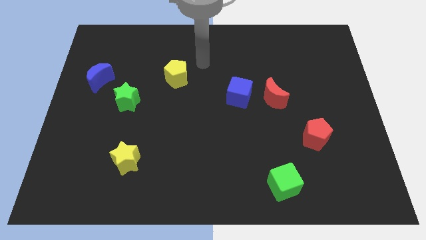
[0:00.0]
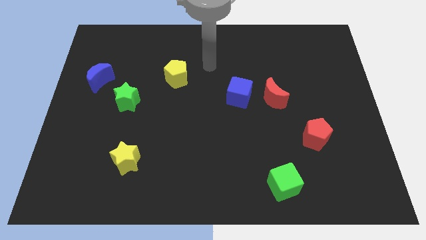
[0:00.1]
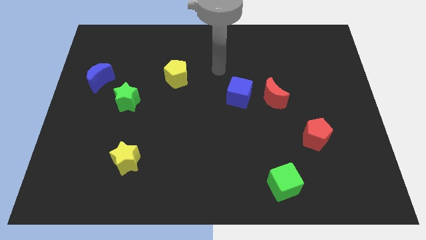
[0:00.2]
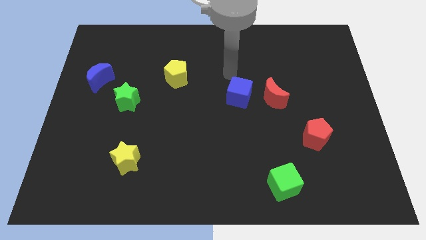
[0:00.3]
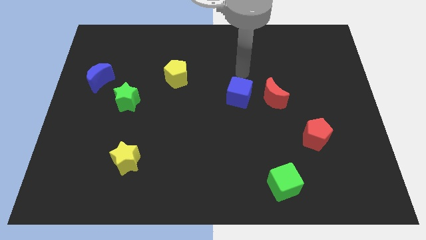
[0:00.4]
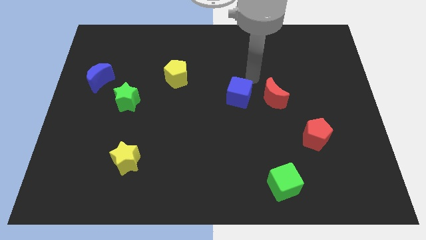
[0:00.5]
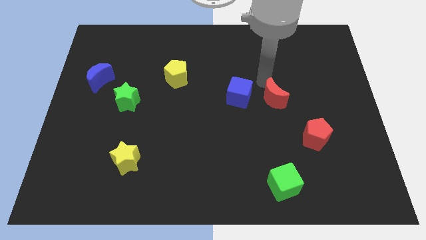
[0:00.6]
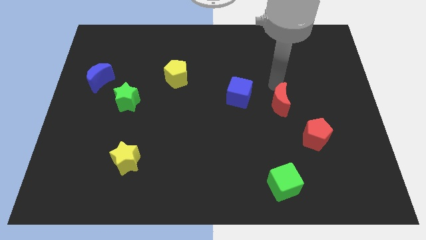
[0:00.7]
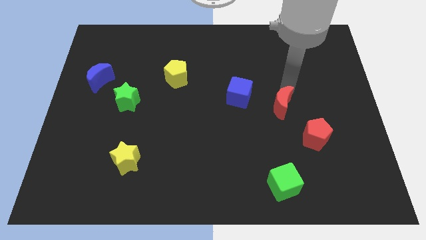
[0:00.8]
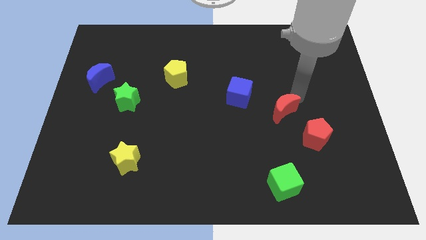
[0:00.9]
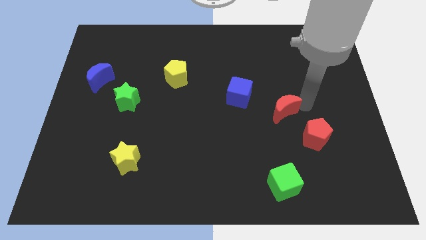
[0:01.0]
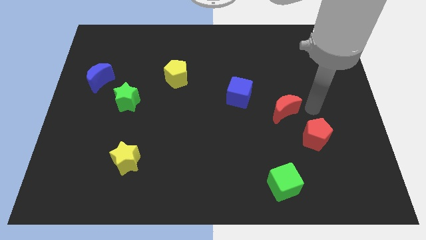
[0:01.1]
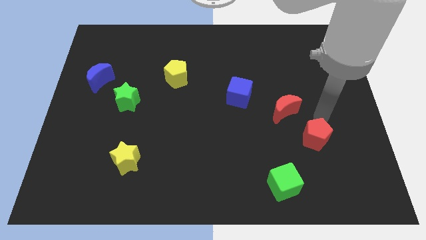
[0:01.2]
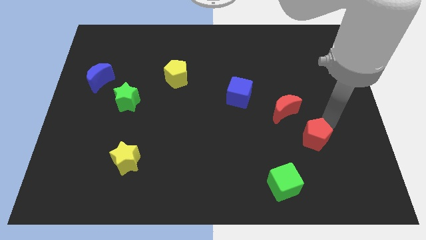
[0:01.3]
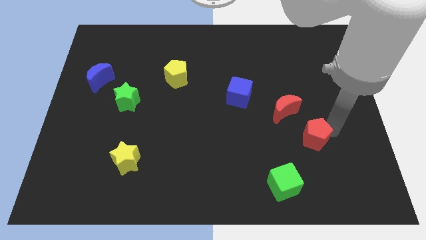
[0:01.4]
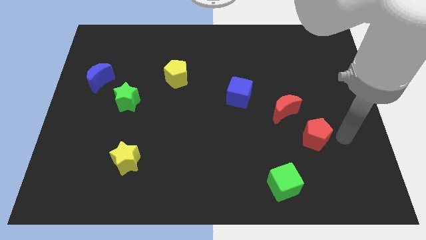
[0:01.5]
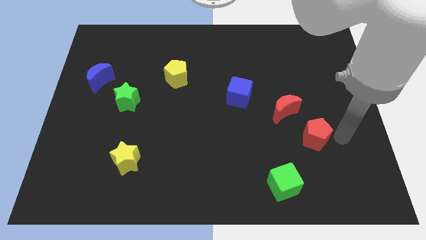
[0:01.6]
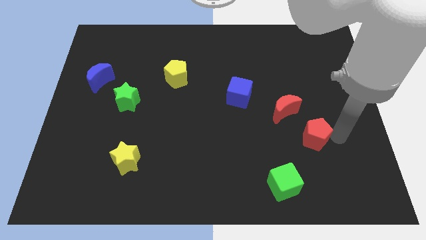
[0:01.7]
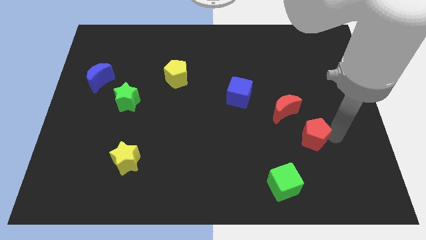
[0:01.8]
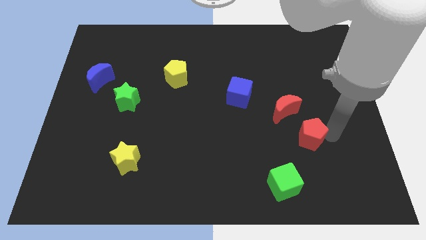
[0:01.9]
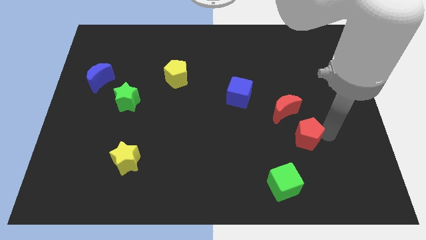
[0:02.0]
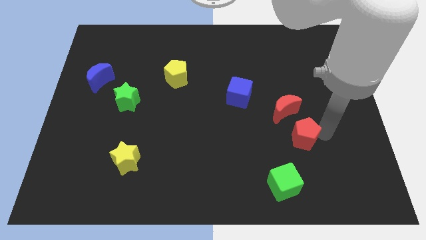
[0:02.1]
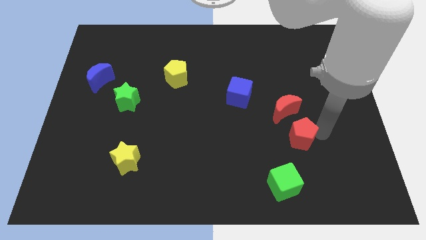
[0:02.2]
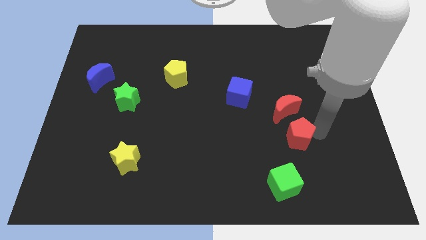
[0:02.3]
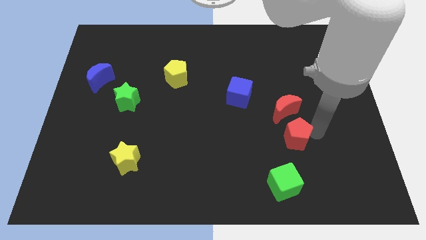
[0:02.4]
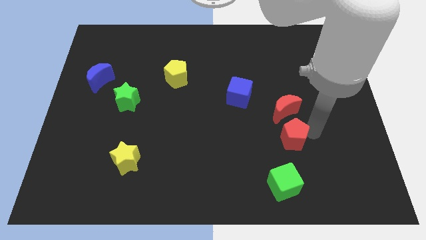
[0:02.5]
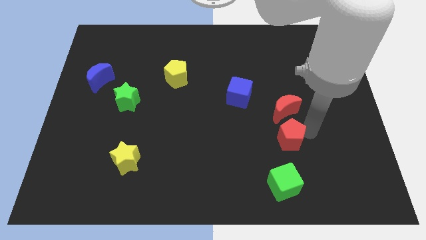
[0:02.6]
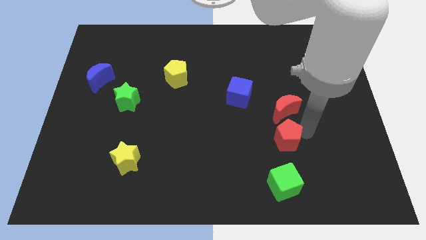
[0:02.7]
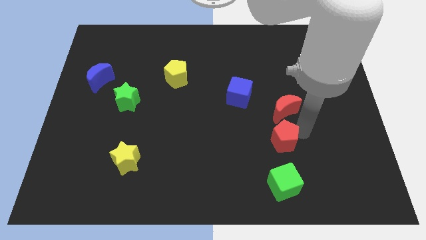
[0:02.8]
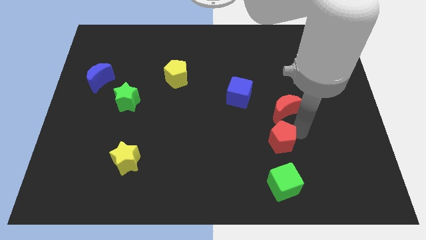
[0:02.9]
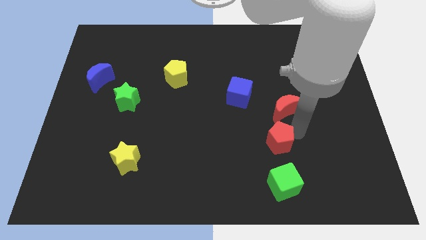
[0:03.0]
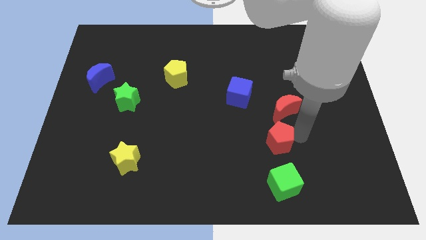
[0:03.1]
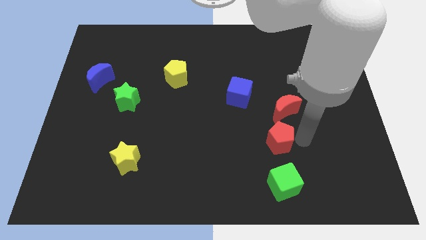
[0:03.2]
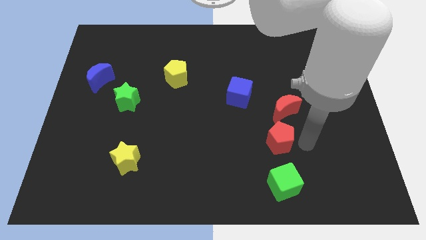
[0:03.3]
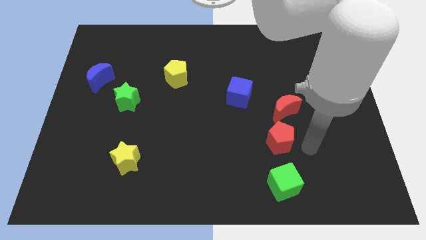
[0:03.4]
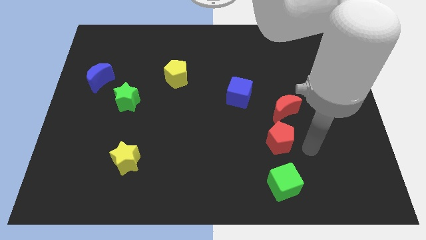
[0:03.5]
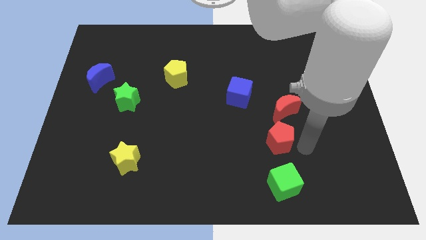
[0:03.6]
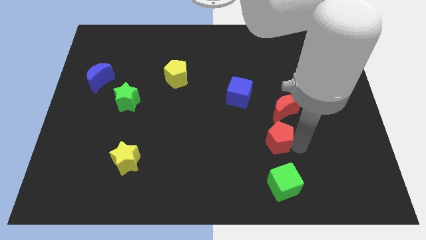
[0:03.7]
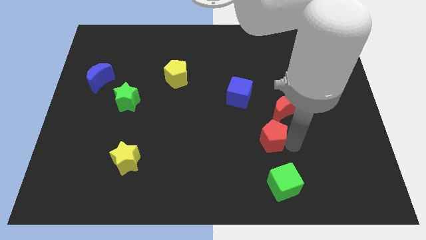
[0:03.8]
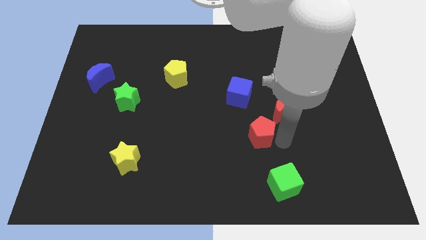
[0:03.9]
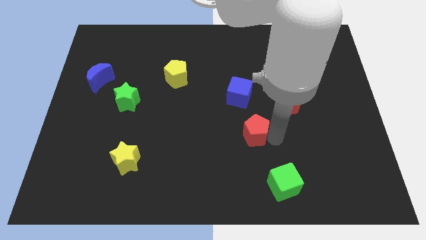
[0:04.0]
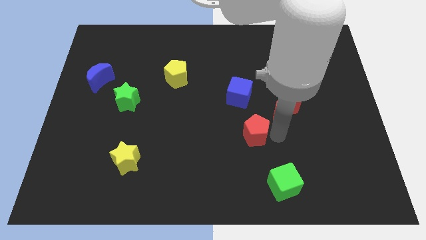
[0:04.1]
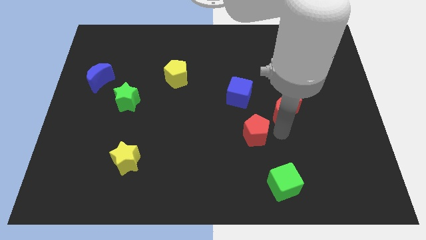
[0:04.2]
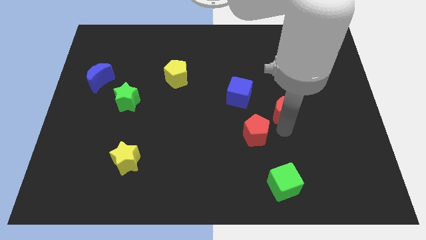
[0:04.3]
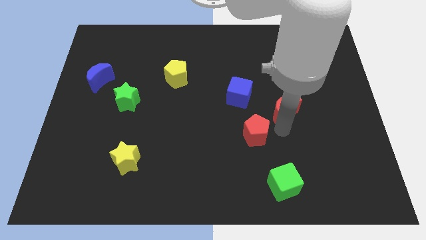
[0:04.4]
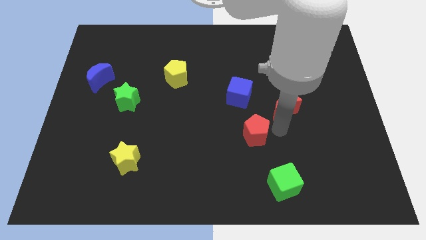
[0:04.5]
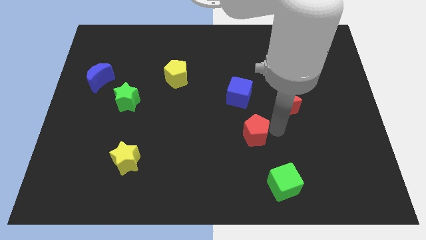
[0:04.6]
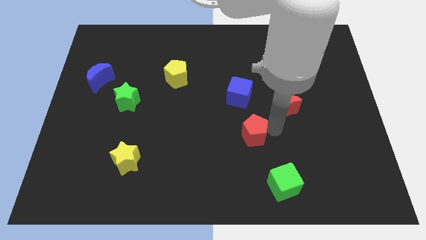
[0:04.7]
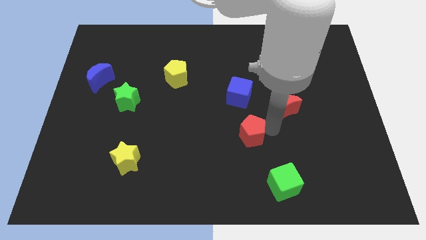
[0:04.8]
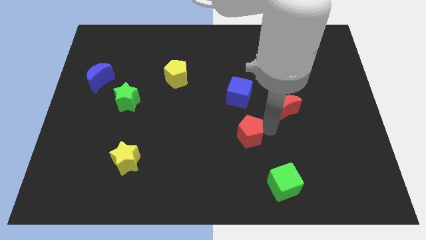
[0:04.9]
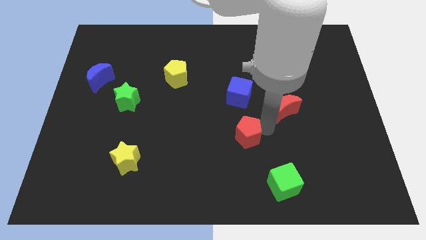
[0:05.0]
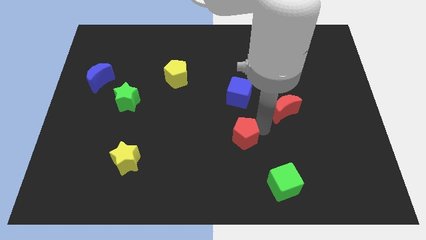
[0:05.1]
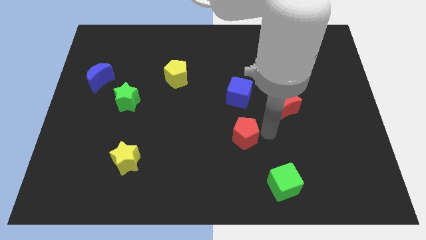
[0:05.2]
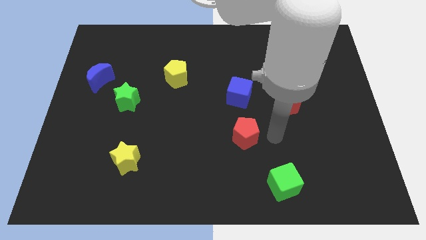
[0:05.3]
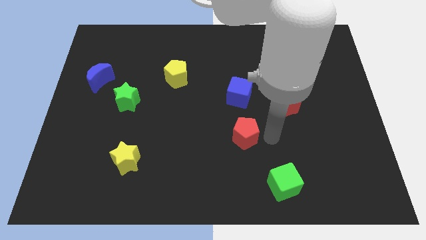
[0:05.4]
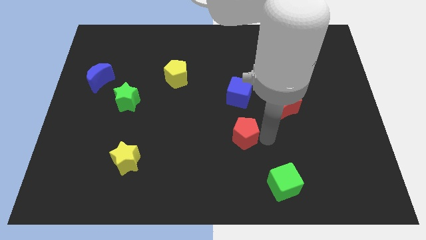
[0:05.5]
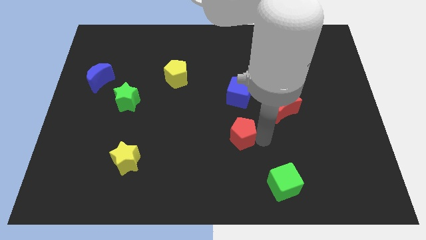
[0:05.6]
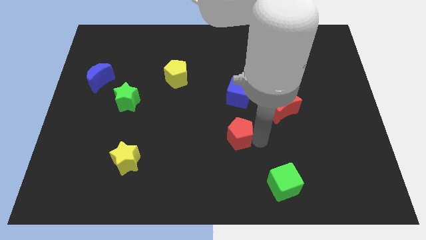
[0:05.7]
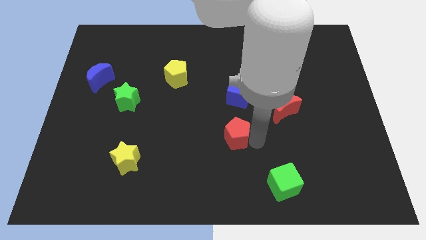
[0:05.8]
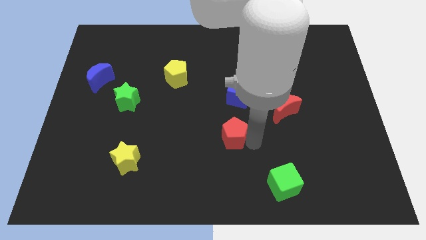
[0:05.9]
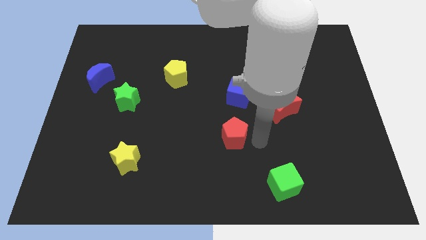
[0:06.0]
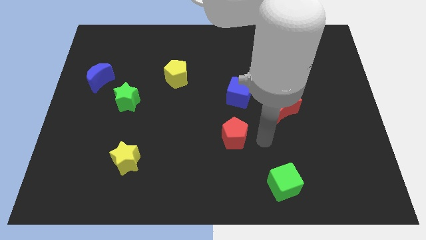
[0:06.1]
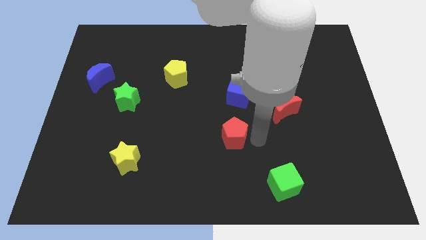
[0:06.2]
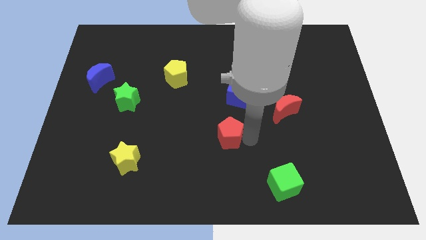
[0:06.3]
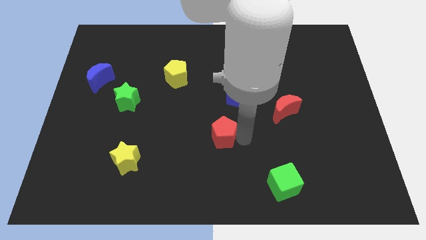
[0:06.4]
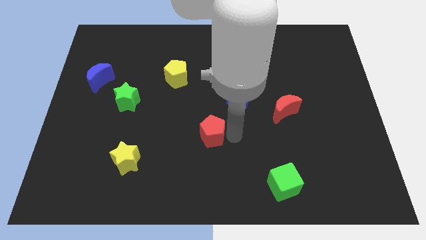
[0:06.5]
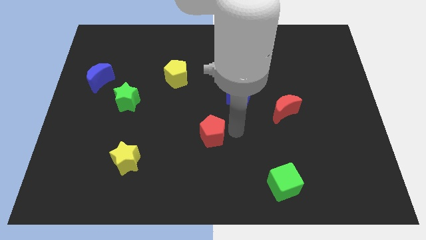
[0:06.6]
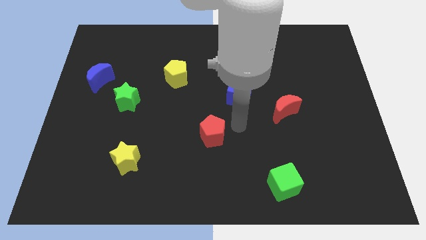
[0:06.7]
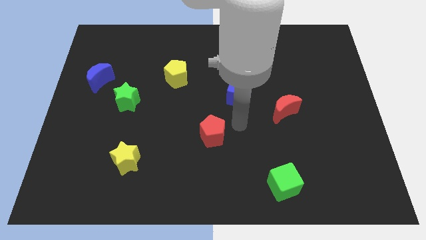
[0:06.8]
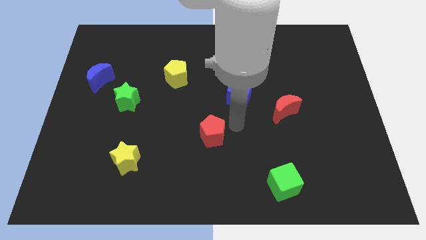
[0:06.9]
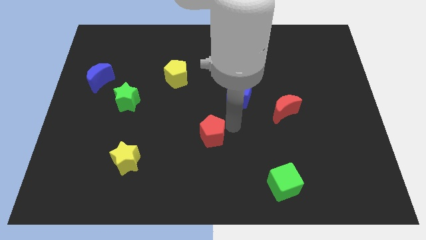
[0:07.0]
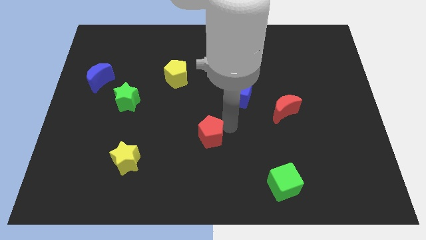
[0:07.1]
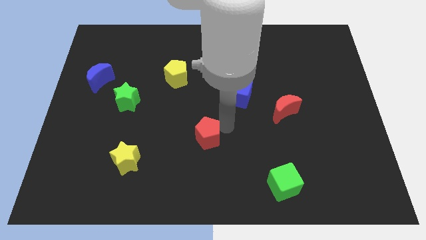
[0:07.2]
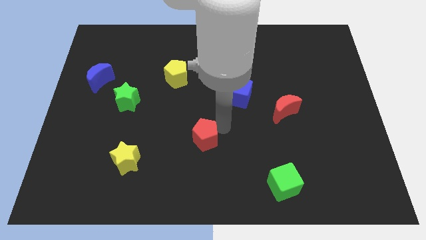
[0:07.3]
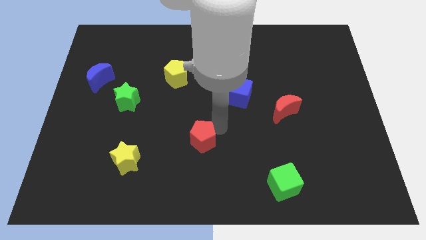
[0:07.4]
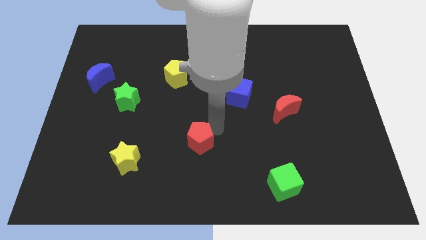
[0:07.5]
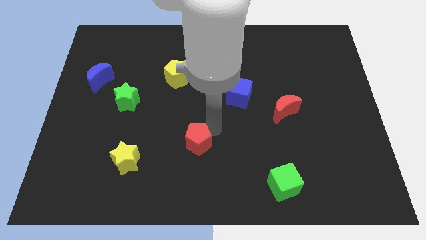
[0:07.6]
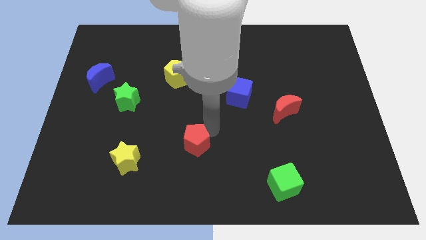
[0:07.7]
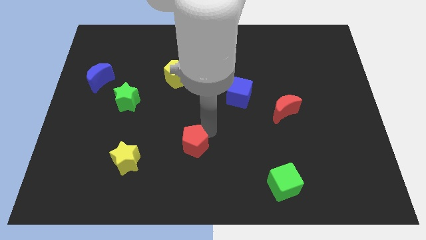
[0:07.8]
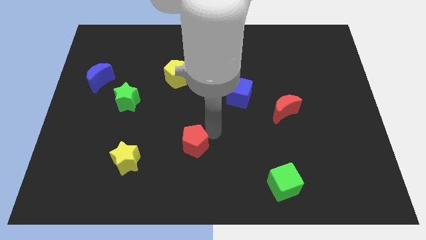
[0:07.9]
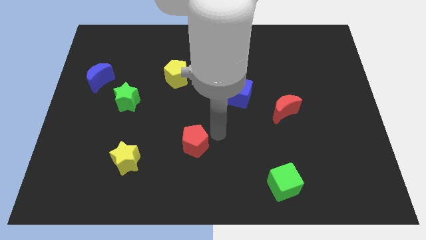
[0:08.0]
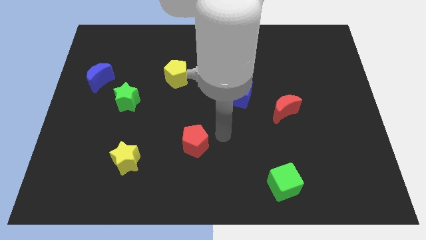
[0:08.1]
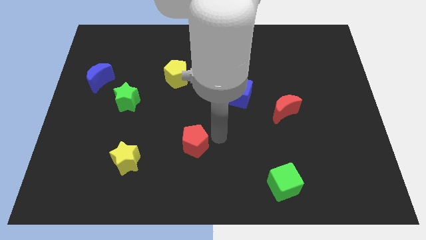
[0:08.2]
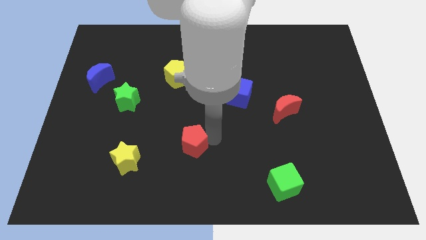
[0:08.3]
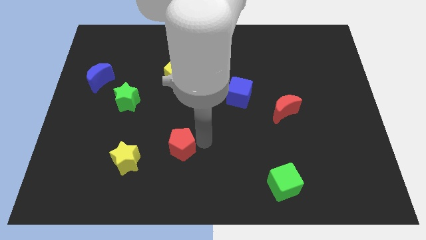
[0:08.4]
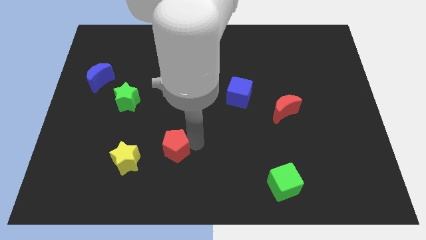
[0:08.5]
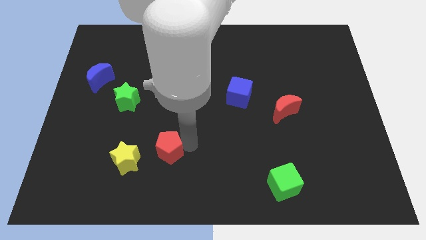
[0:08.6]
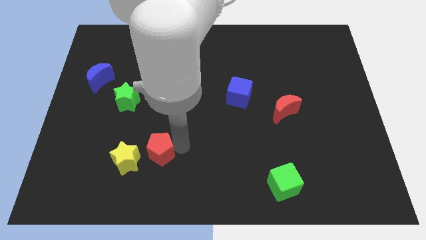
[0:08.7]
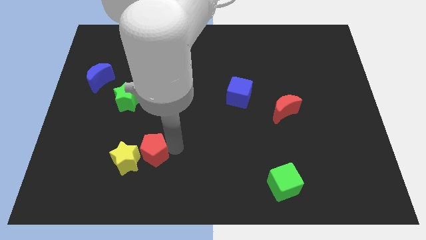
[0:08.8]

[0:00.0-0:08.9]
slide the red pentagon next to the yellow star
